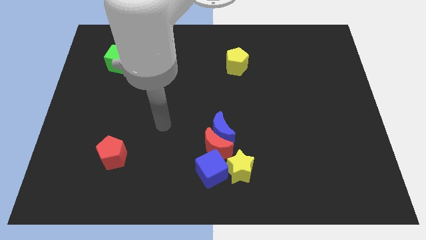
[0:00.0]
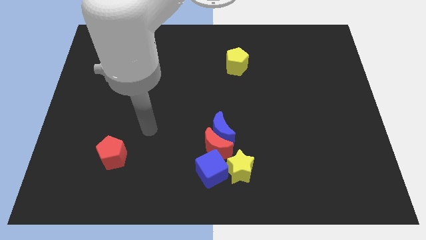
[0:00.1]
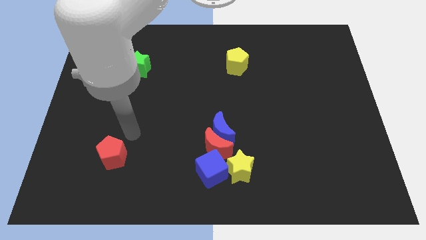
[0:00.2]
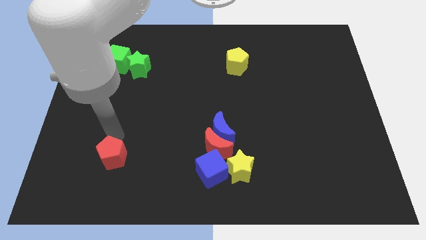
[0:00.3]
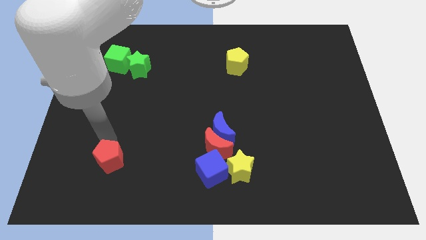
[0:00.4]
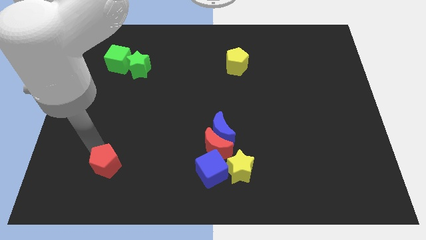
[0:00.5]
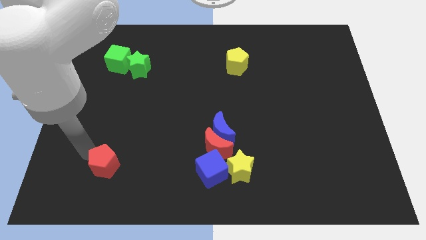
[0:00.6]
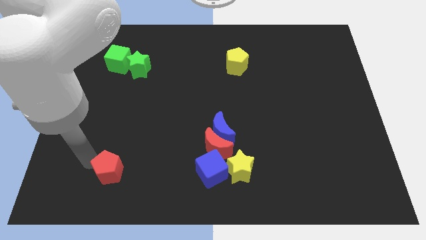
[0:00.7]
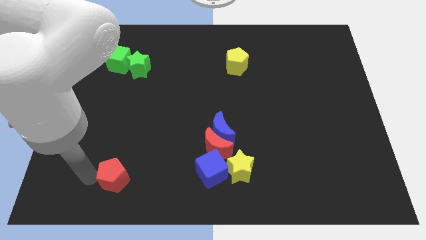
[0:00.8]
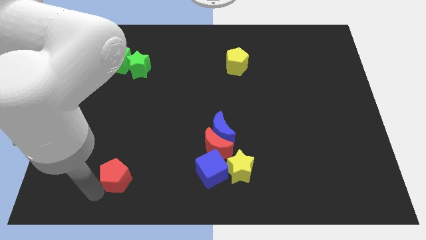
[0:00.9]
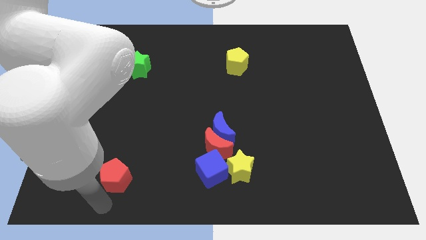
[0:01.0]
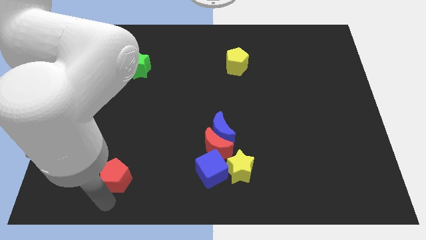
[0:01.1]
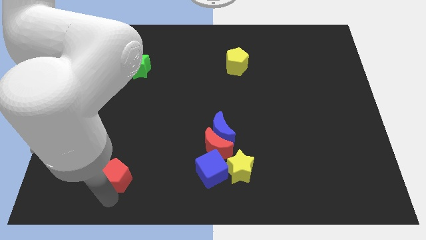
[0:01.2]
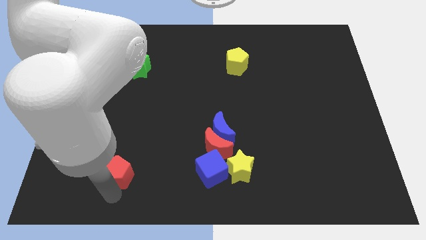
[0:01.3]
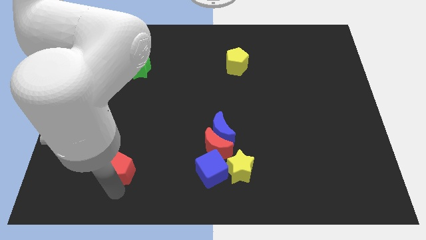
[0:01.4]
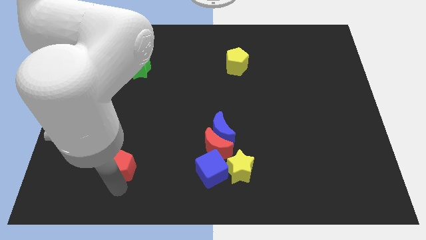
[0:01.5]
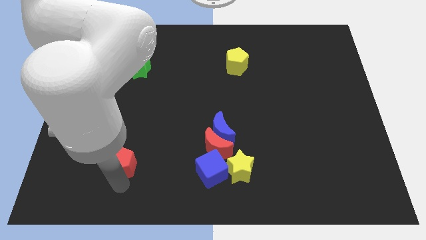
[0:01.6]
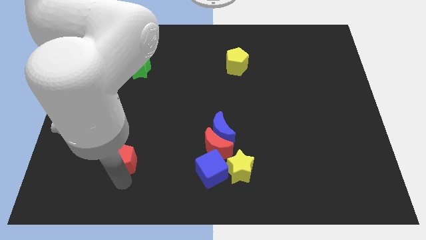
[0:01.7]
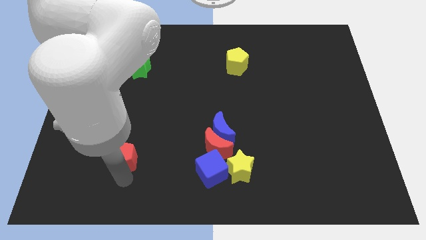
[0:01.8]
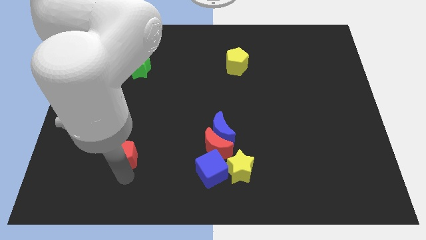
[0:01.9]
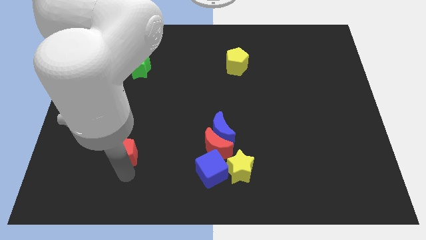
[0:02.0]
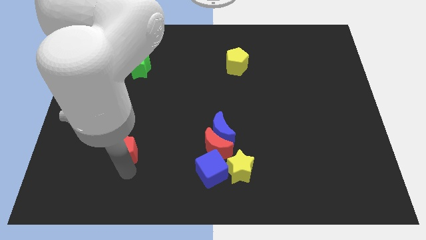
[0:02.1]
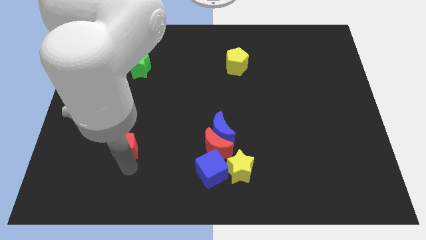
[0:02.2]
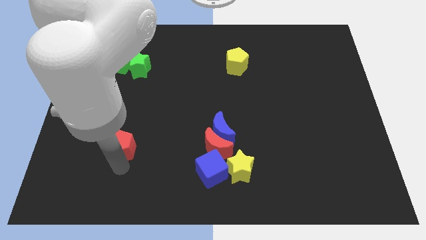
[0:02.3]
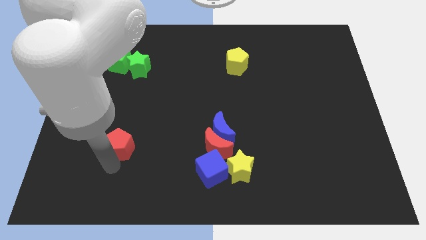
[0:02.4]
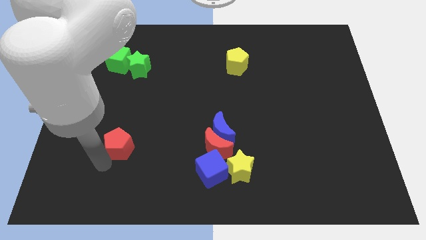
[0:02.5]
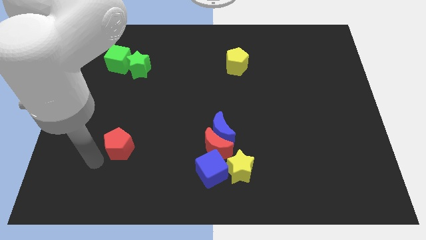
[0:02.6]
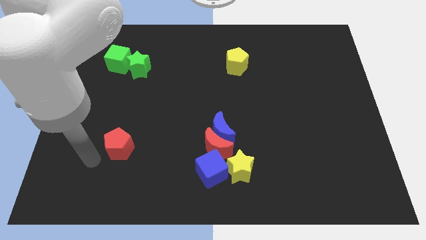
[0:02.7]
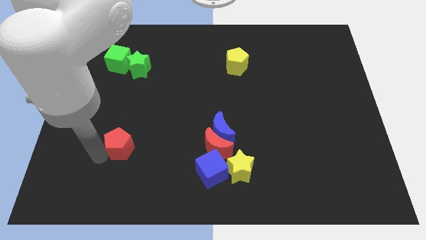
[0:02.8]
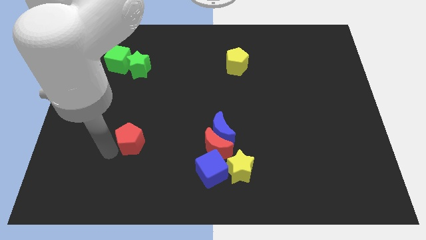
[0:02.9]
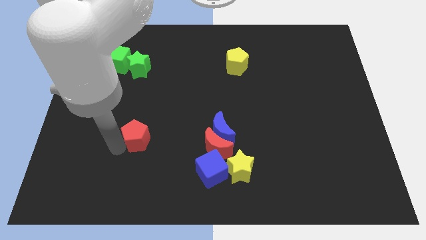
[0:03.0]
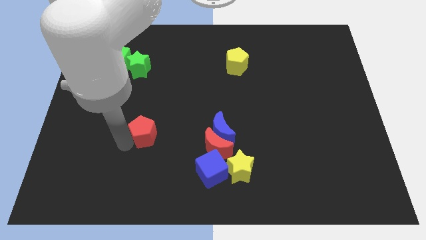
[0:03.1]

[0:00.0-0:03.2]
slide the red pentagon a little up and right

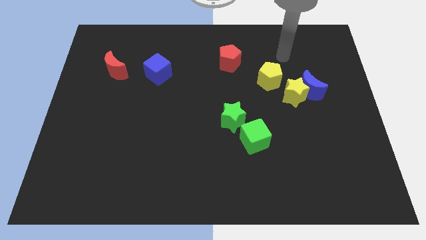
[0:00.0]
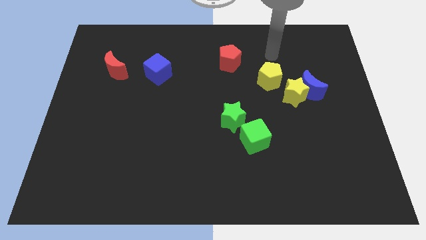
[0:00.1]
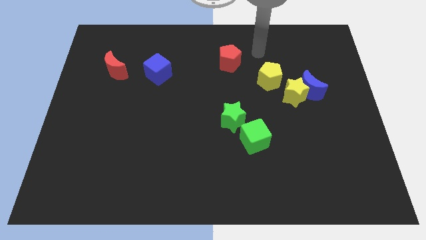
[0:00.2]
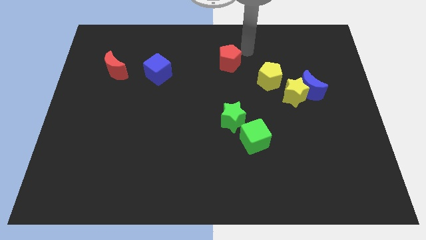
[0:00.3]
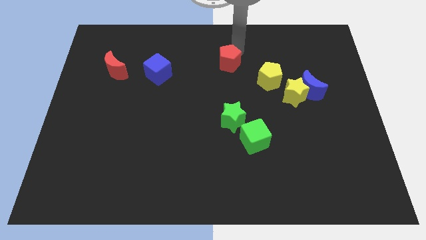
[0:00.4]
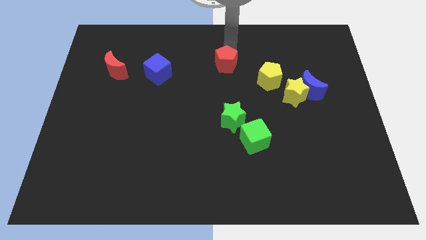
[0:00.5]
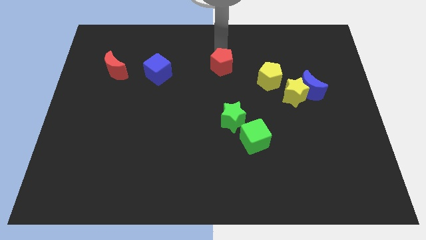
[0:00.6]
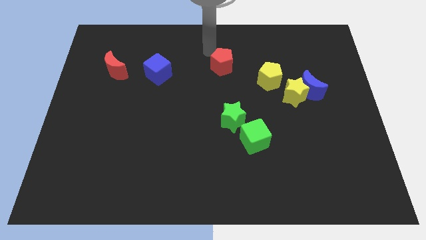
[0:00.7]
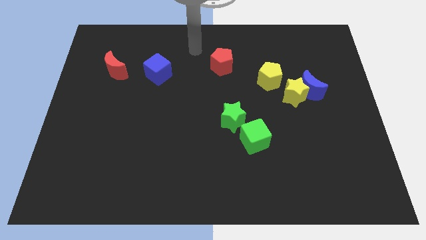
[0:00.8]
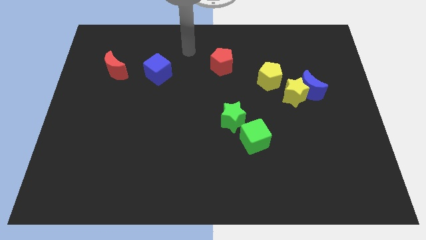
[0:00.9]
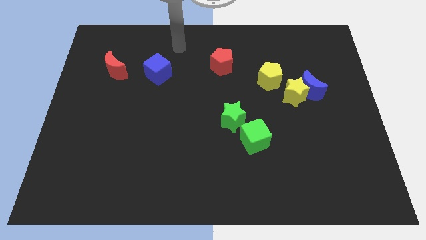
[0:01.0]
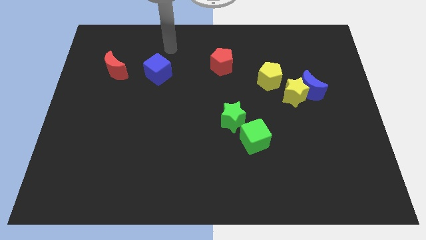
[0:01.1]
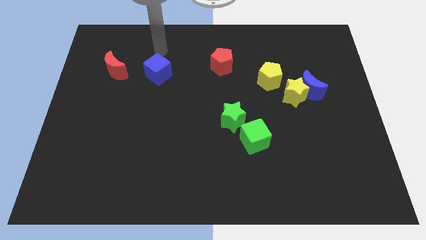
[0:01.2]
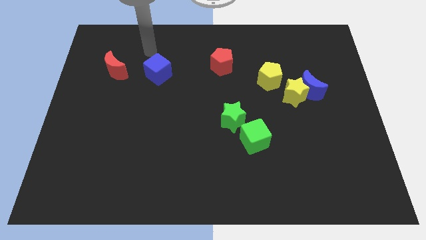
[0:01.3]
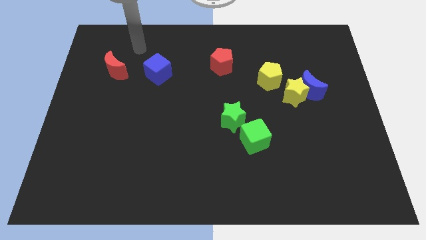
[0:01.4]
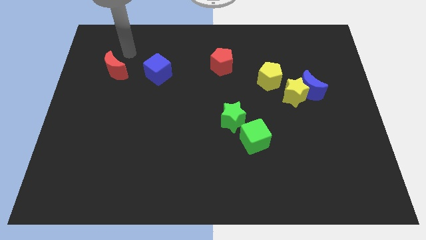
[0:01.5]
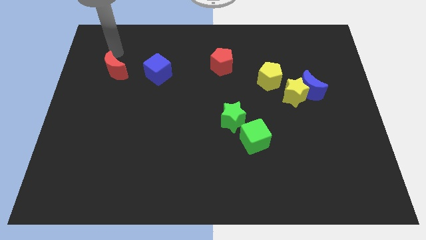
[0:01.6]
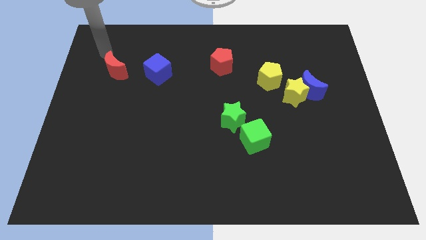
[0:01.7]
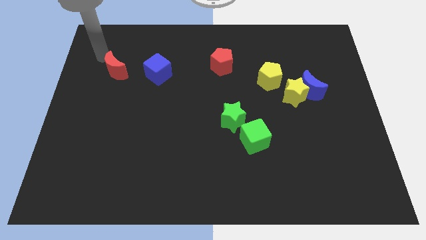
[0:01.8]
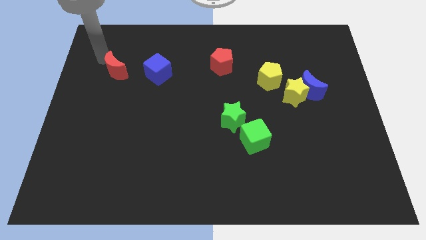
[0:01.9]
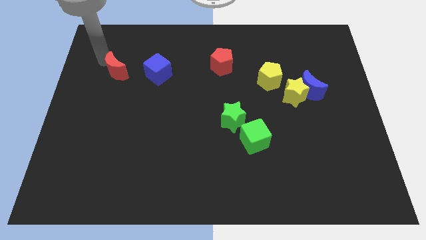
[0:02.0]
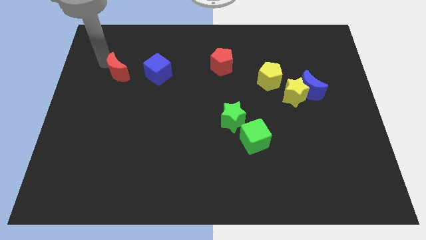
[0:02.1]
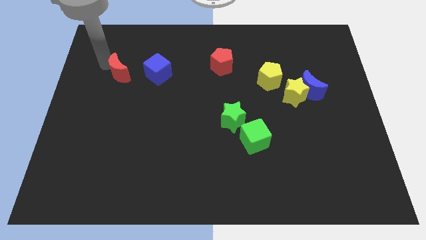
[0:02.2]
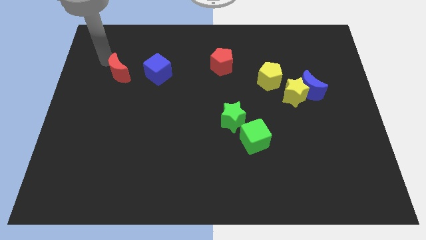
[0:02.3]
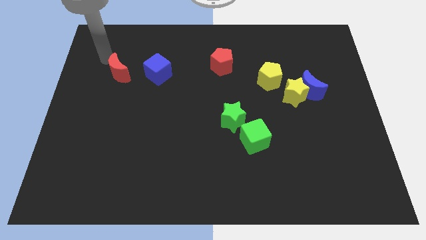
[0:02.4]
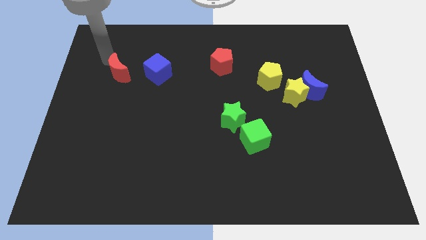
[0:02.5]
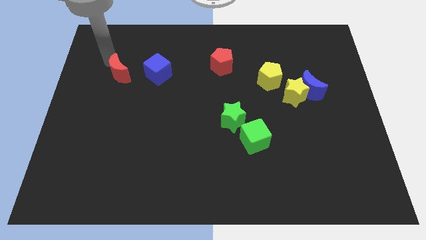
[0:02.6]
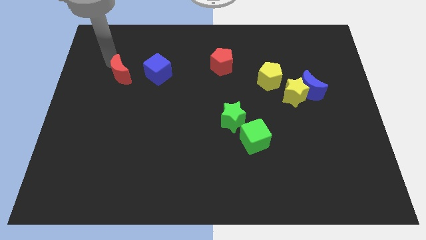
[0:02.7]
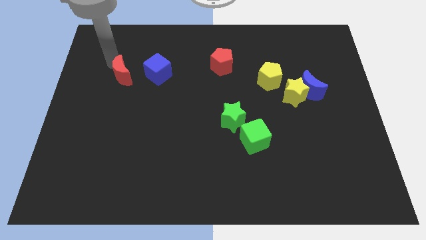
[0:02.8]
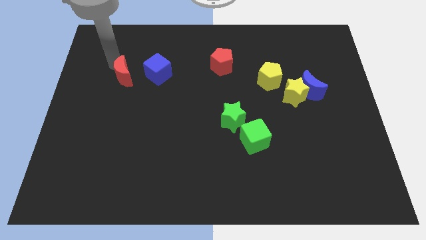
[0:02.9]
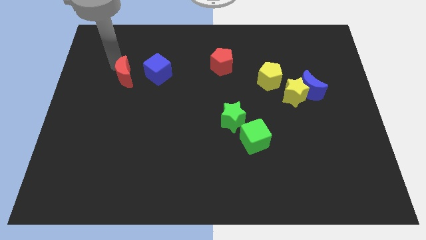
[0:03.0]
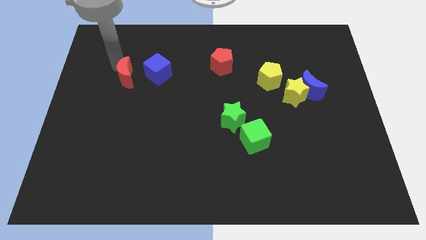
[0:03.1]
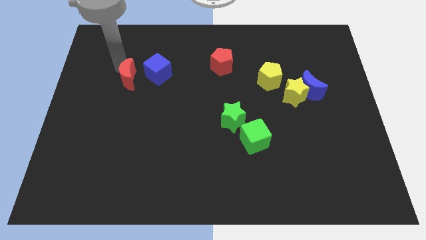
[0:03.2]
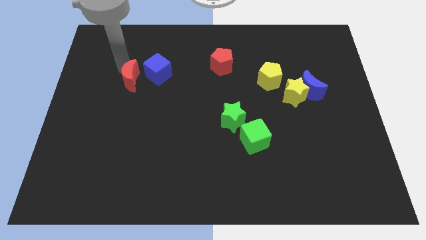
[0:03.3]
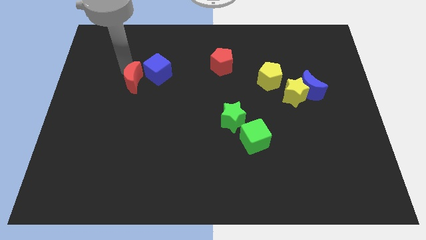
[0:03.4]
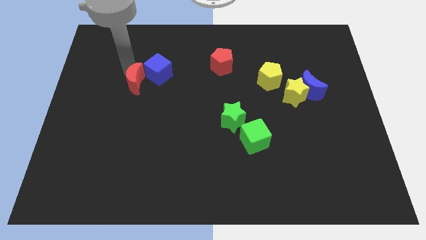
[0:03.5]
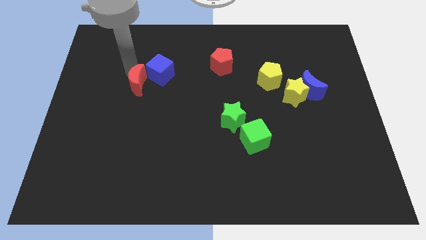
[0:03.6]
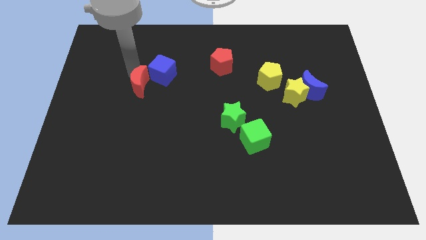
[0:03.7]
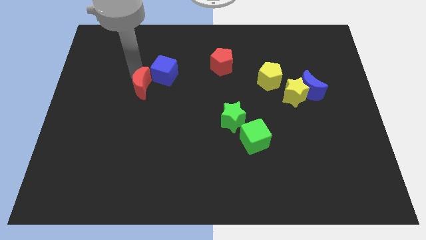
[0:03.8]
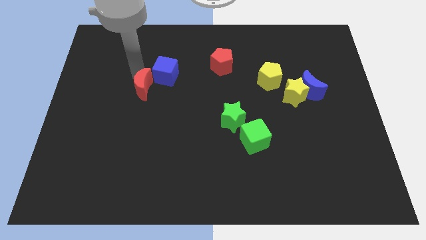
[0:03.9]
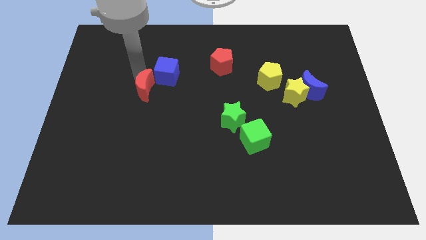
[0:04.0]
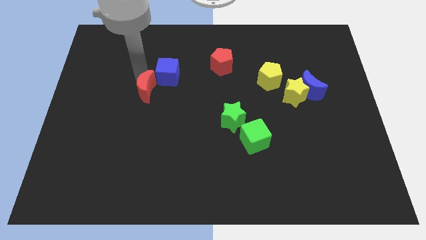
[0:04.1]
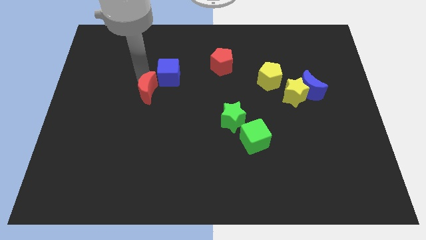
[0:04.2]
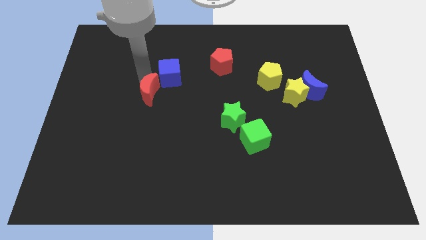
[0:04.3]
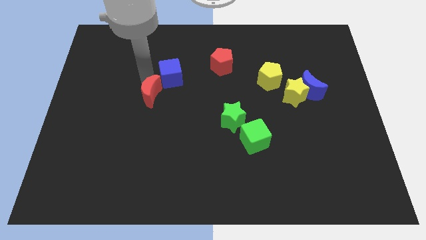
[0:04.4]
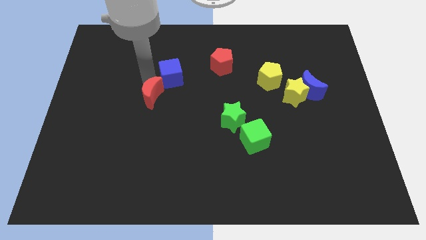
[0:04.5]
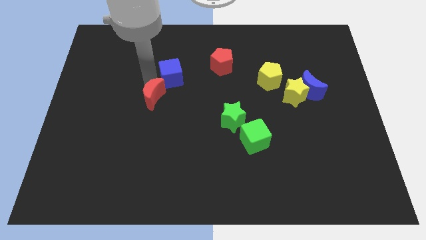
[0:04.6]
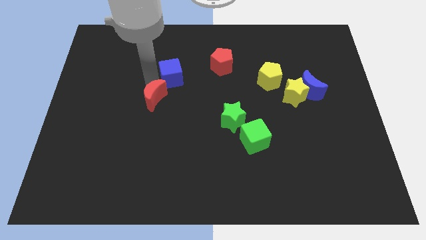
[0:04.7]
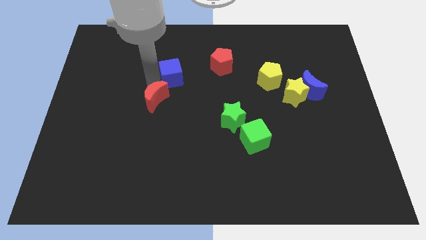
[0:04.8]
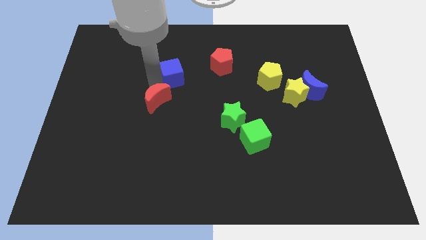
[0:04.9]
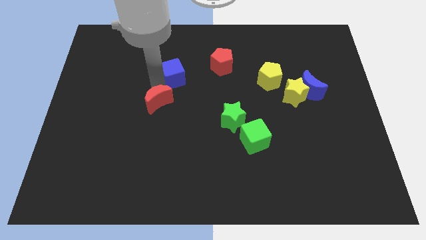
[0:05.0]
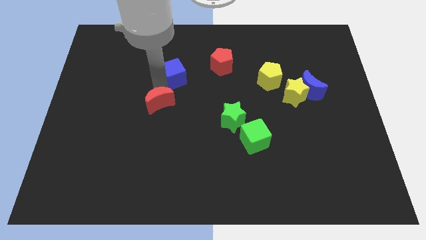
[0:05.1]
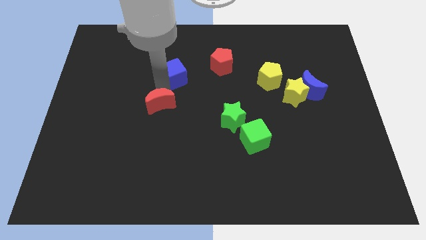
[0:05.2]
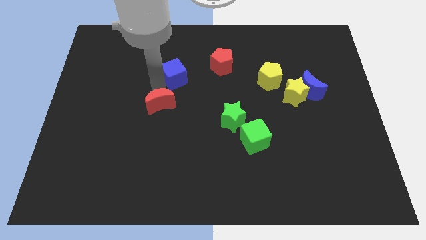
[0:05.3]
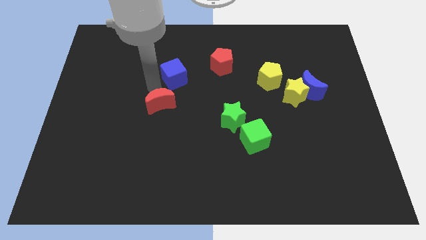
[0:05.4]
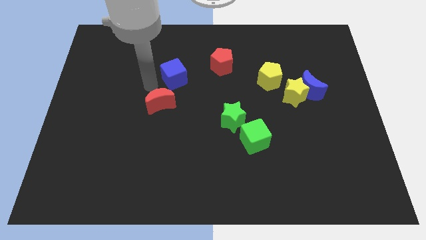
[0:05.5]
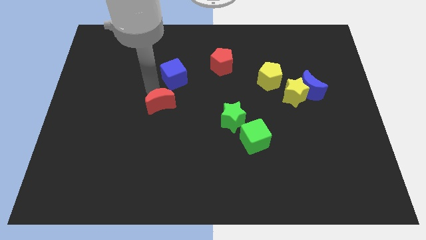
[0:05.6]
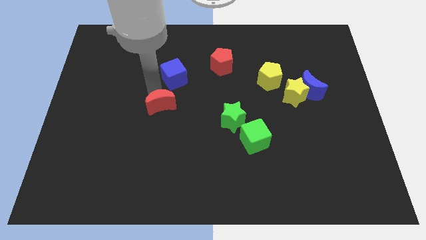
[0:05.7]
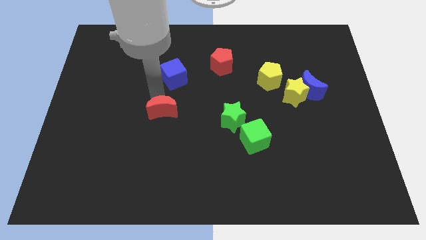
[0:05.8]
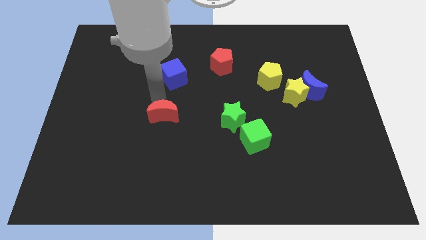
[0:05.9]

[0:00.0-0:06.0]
slide the red moon down and to the right diagonally
